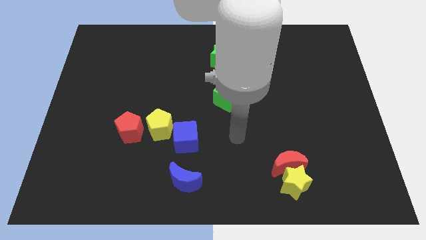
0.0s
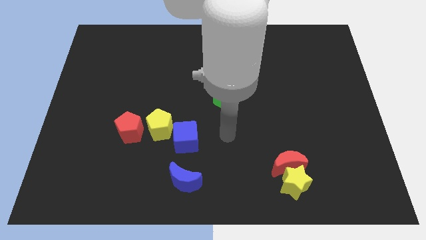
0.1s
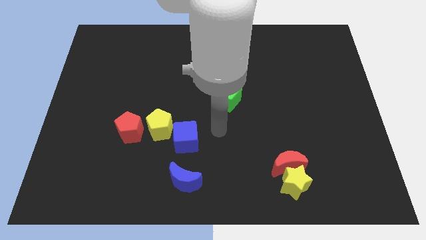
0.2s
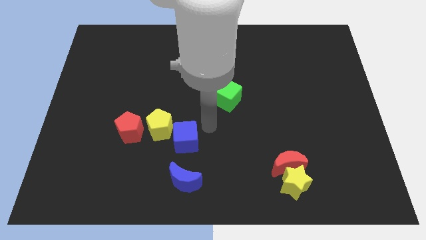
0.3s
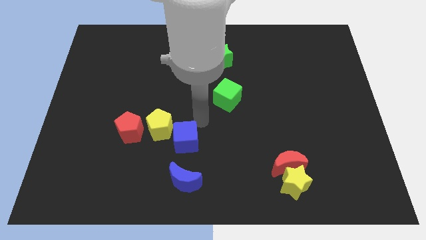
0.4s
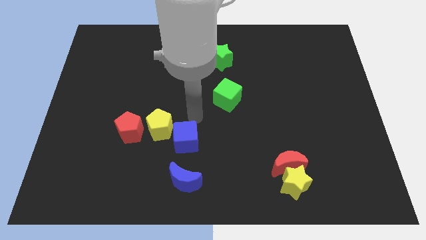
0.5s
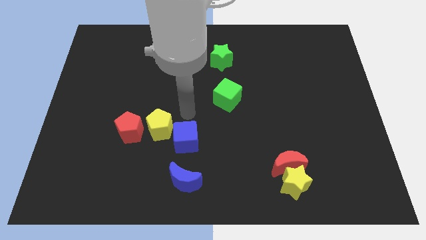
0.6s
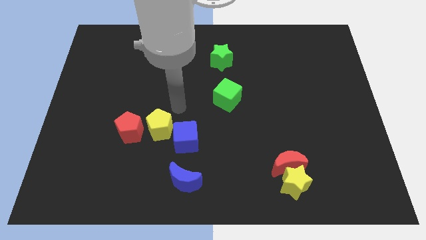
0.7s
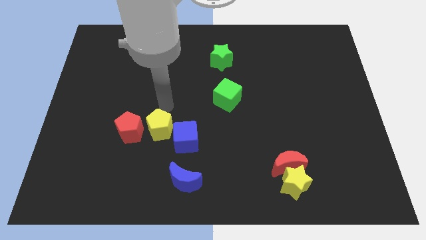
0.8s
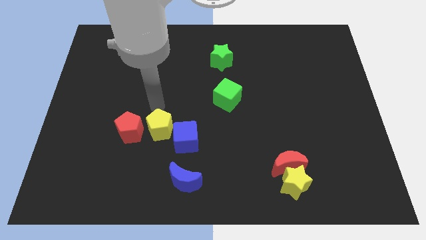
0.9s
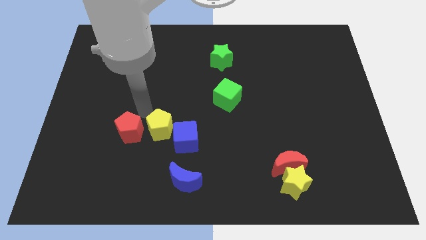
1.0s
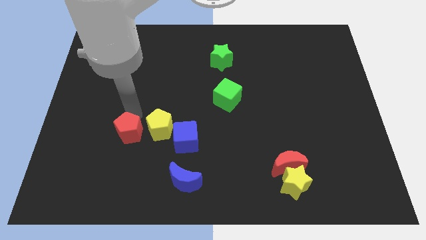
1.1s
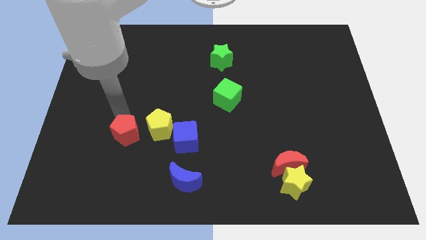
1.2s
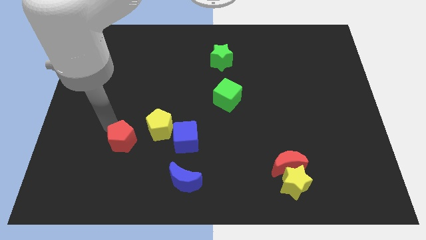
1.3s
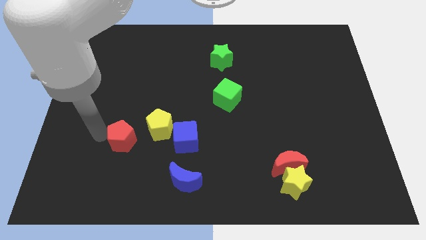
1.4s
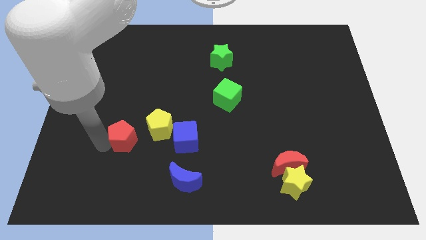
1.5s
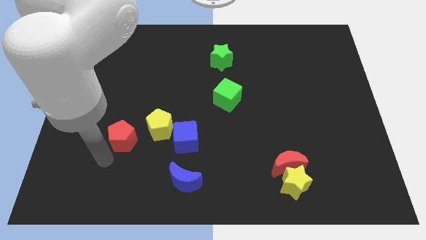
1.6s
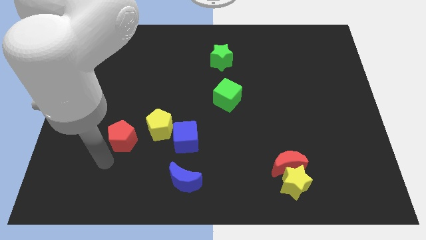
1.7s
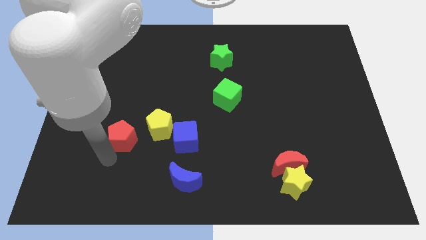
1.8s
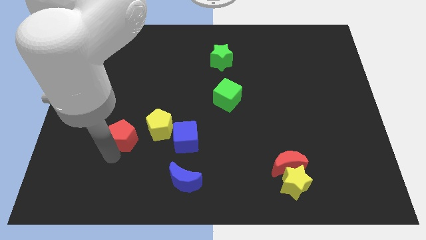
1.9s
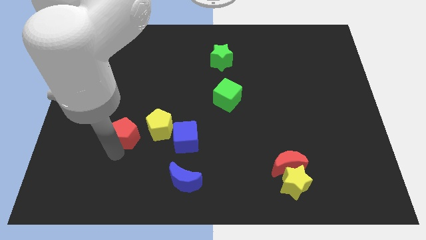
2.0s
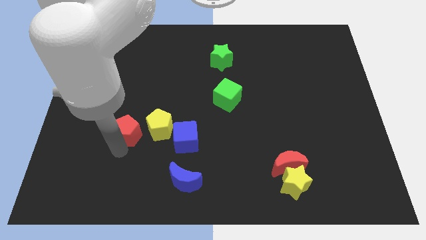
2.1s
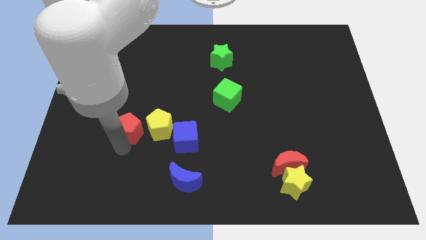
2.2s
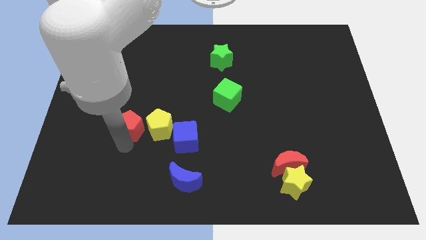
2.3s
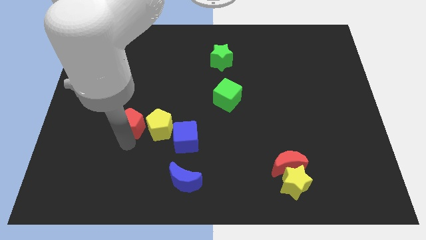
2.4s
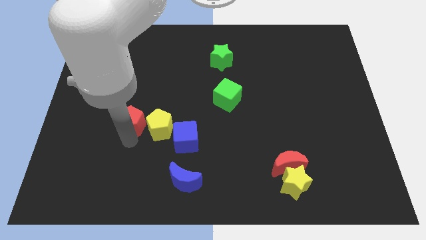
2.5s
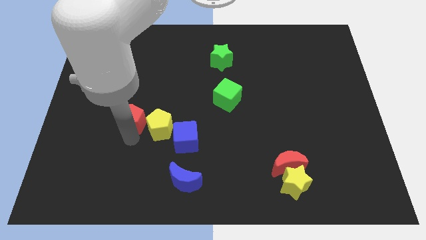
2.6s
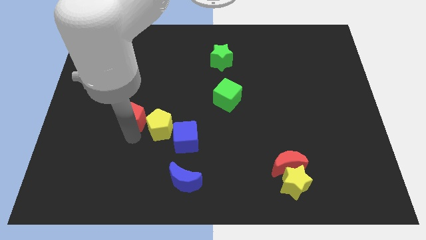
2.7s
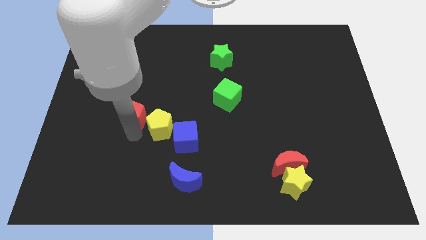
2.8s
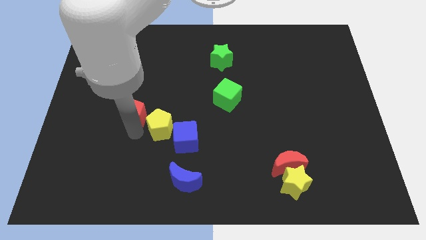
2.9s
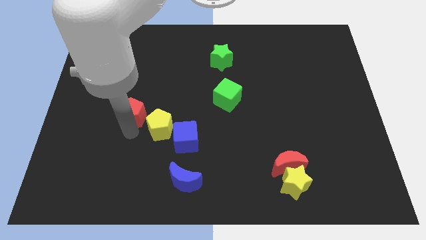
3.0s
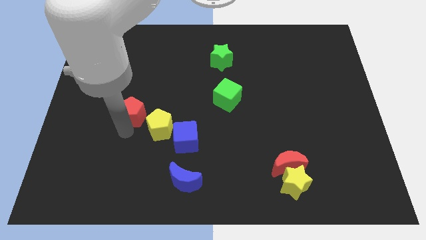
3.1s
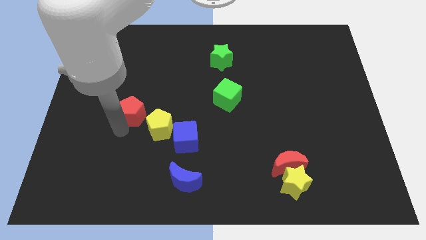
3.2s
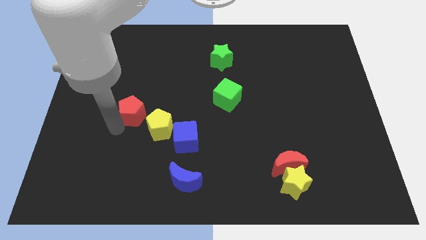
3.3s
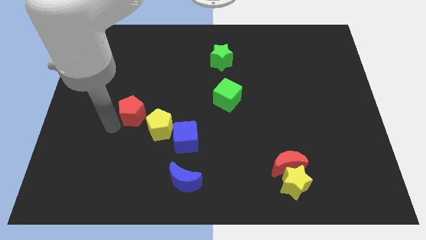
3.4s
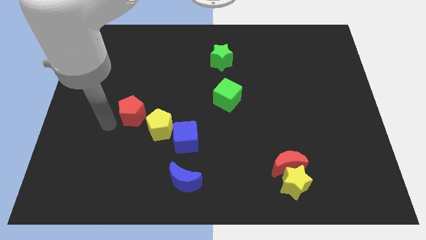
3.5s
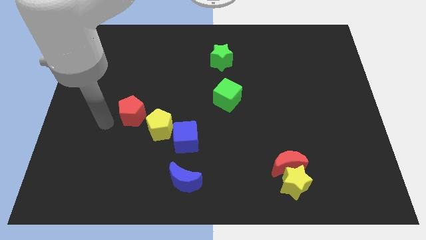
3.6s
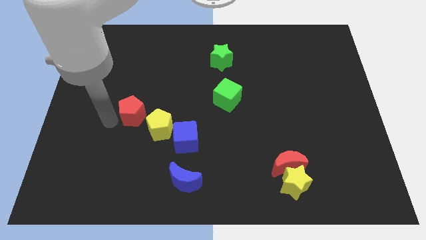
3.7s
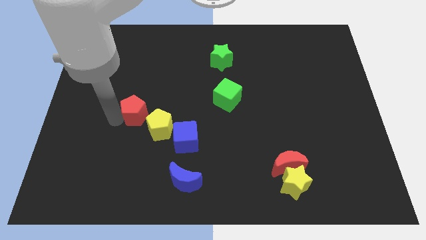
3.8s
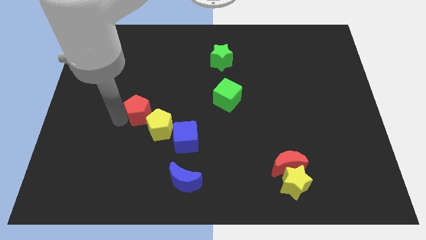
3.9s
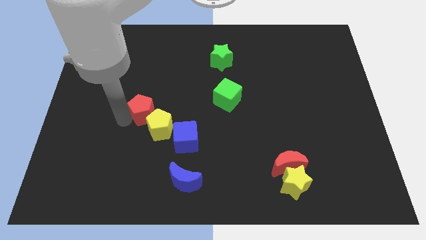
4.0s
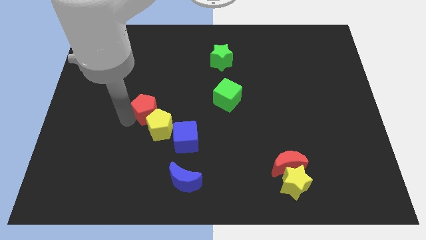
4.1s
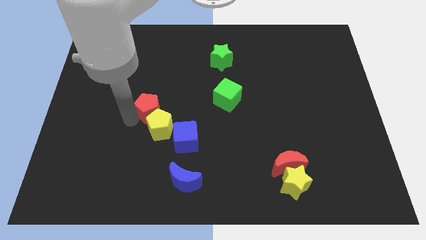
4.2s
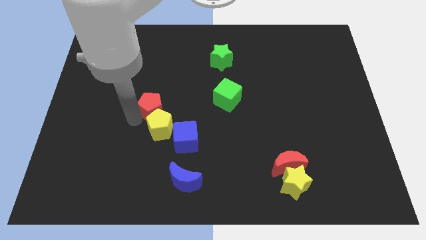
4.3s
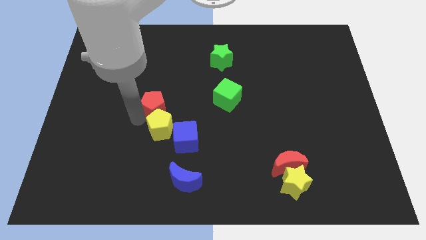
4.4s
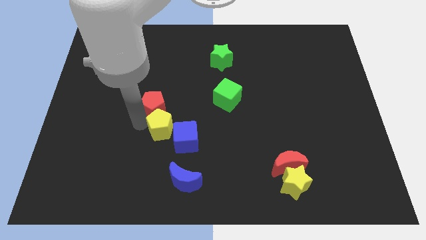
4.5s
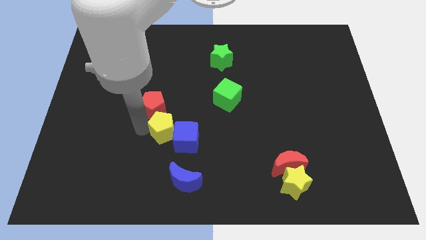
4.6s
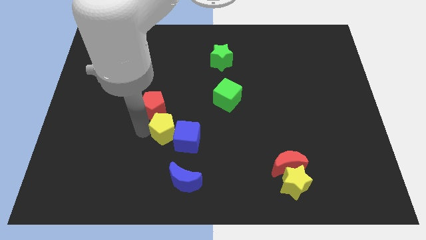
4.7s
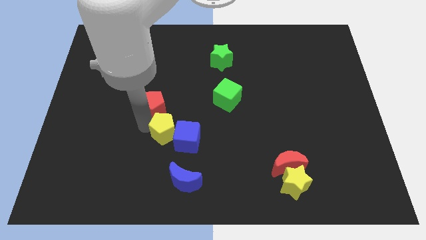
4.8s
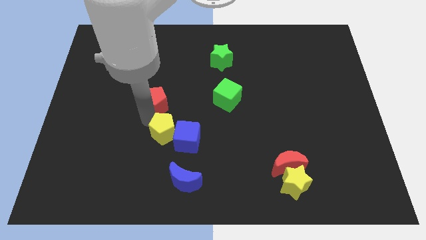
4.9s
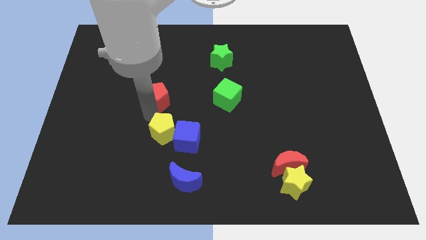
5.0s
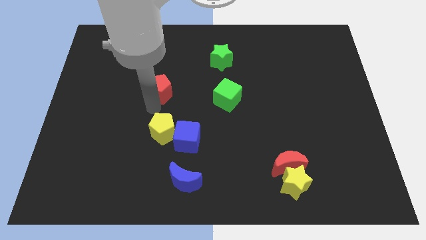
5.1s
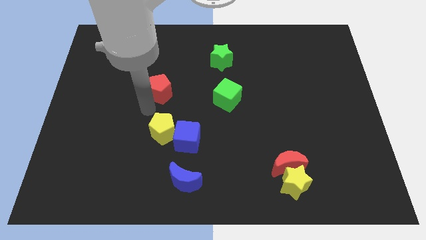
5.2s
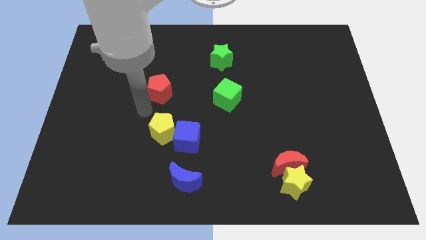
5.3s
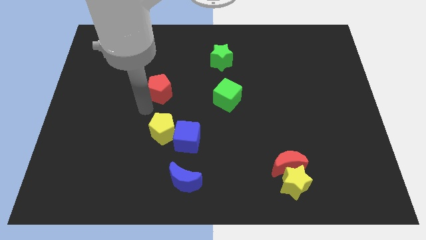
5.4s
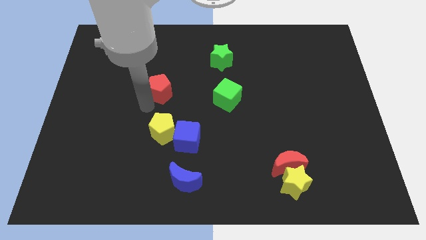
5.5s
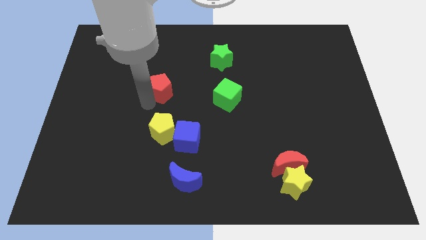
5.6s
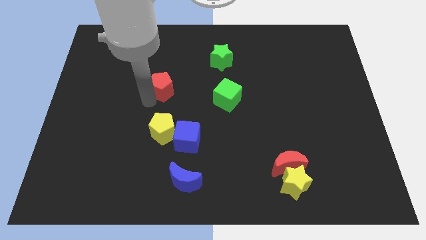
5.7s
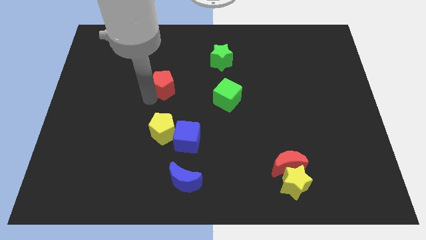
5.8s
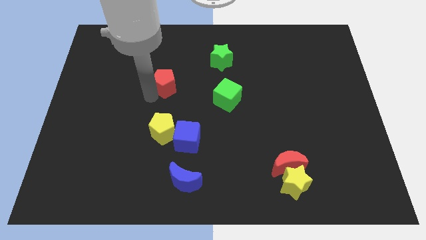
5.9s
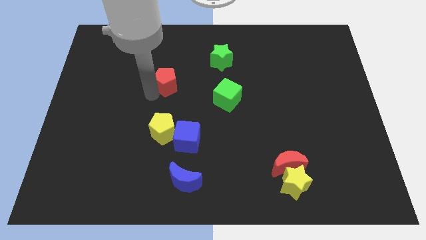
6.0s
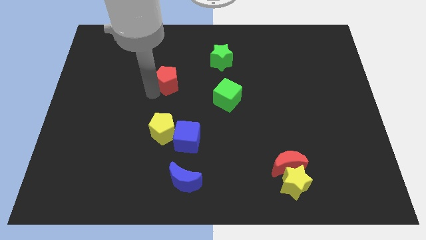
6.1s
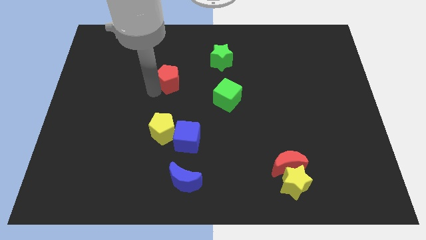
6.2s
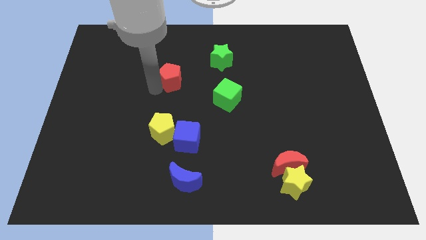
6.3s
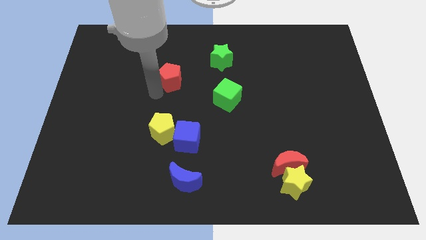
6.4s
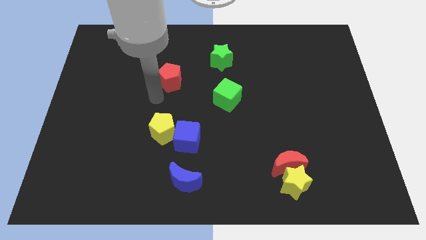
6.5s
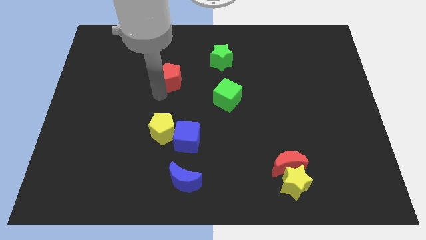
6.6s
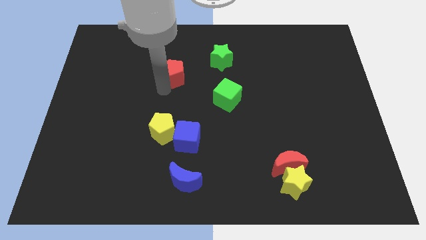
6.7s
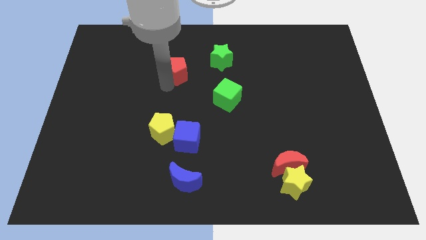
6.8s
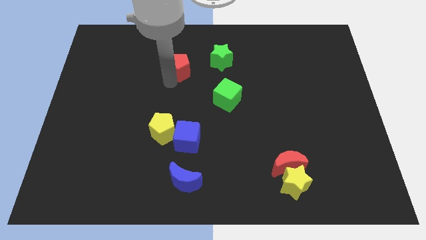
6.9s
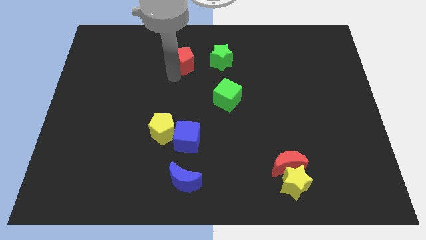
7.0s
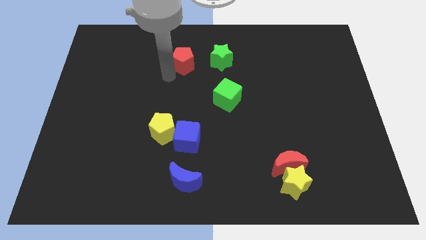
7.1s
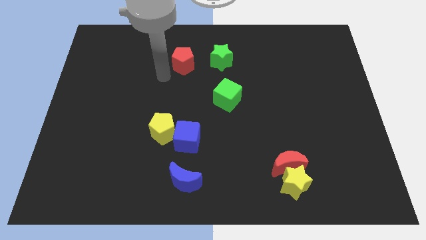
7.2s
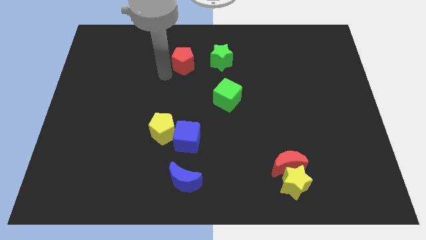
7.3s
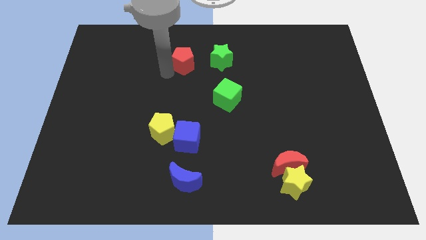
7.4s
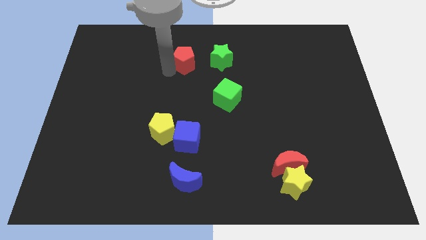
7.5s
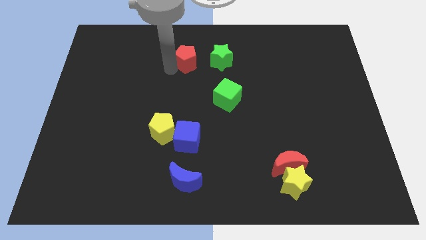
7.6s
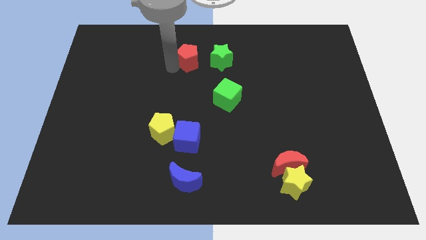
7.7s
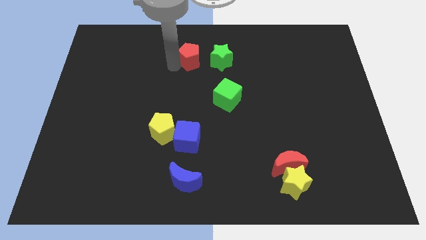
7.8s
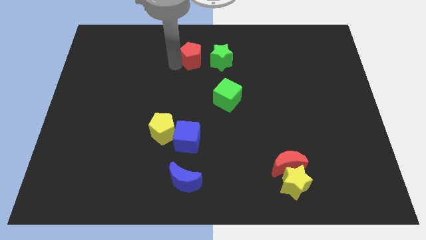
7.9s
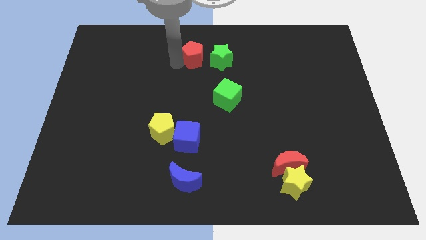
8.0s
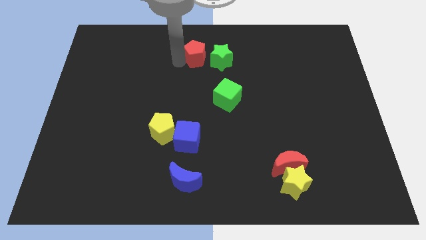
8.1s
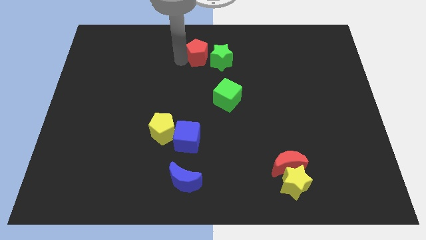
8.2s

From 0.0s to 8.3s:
slide the red pentagon to the towards your base
